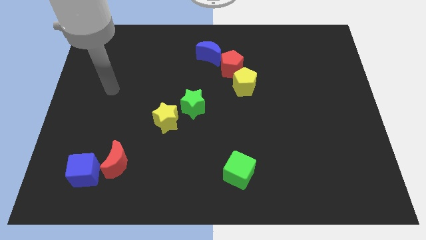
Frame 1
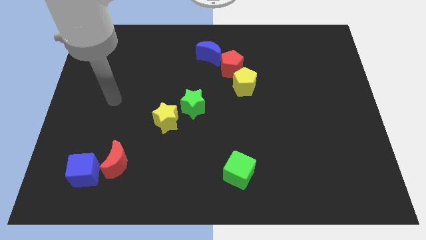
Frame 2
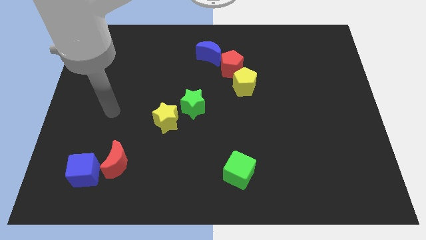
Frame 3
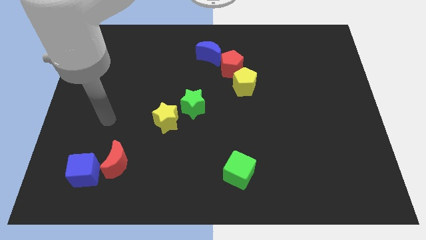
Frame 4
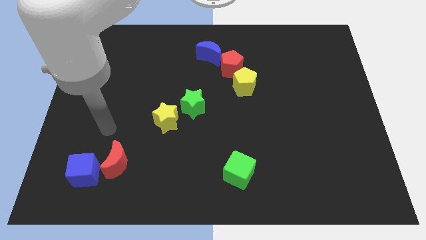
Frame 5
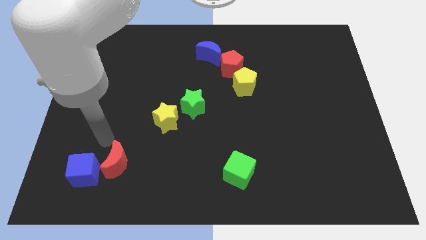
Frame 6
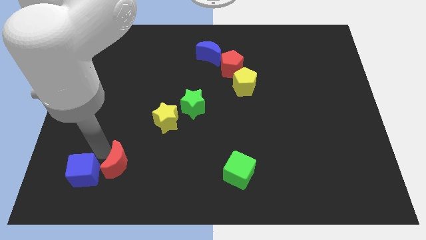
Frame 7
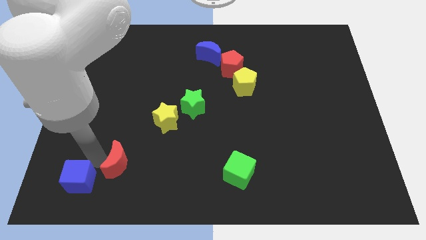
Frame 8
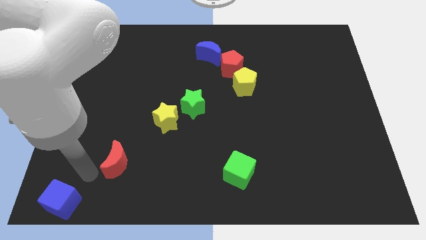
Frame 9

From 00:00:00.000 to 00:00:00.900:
pull the red moon apart from the blue cube

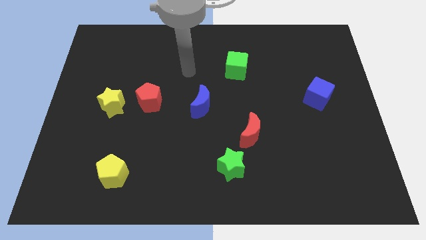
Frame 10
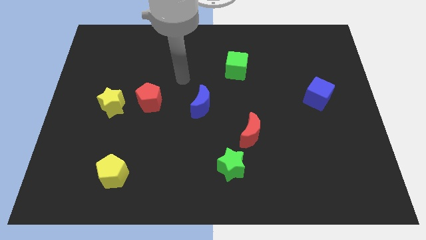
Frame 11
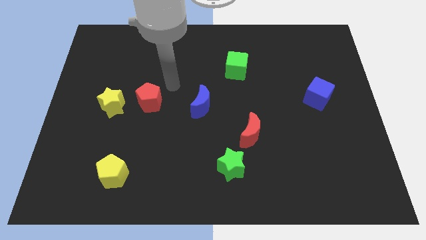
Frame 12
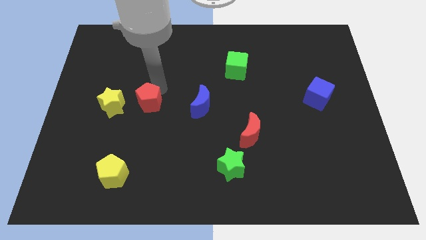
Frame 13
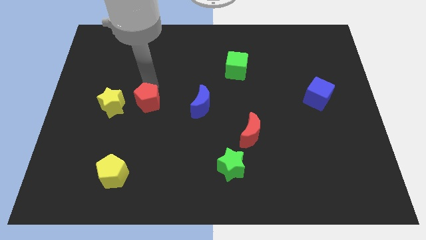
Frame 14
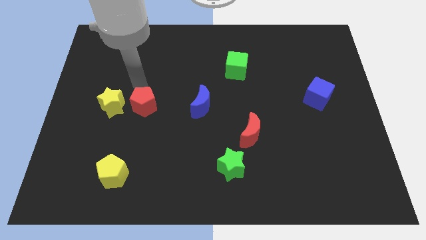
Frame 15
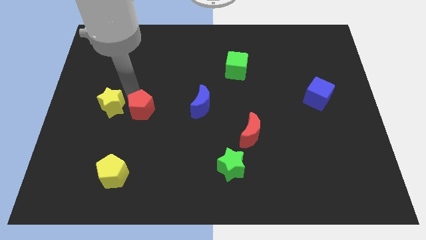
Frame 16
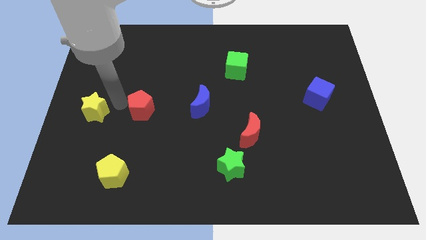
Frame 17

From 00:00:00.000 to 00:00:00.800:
pull the red pentagon apart from the yellow star

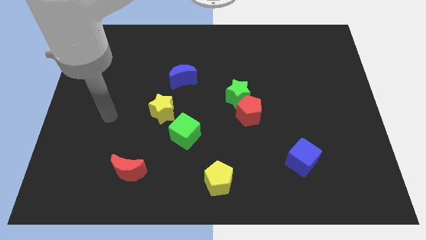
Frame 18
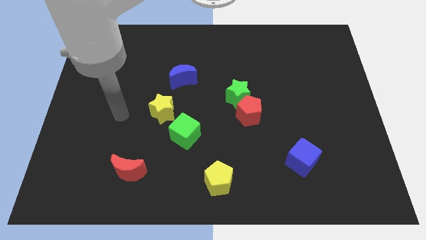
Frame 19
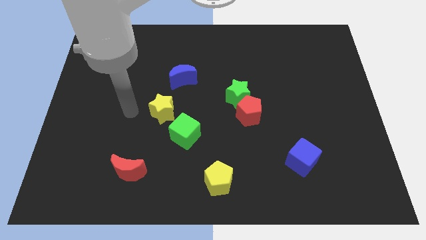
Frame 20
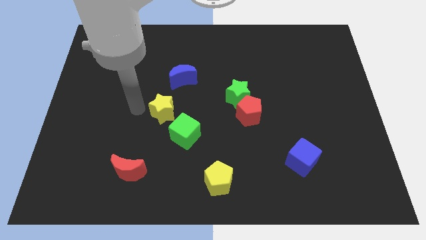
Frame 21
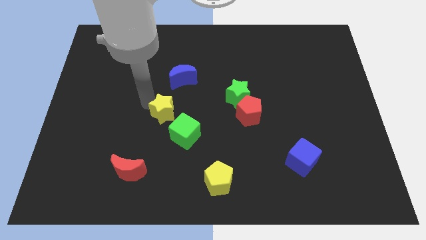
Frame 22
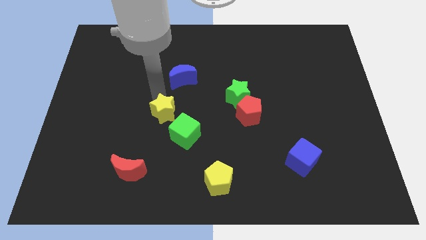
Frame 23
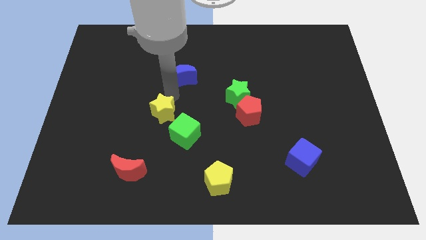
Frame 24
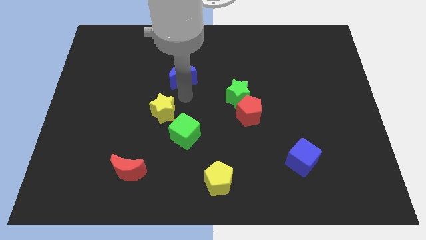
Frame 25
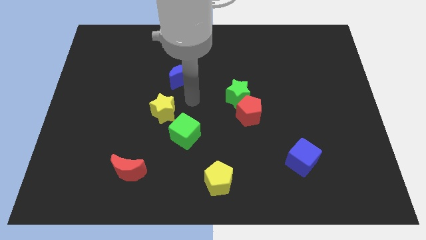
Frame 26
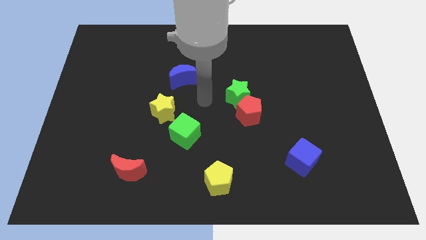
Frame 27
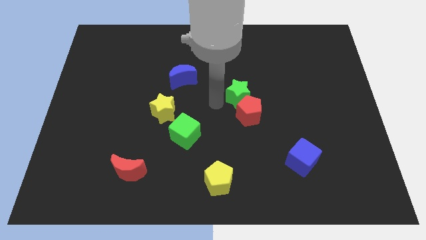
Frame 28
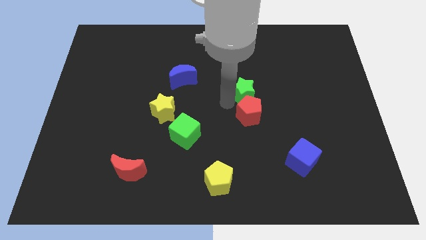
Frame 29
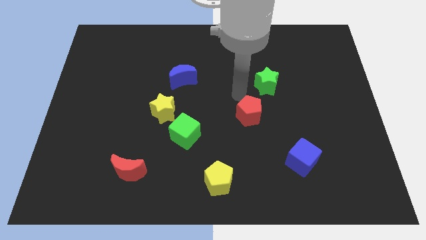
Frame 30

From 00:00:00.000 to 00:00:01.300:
pull the red pentagon apart from the green star

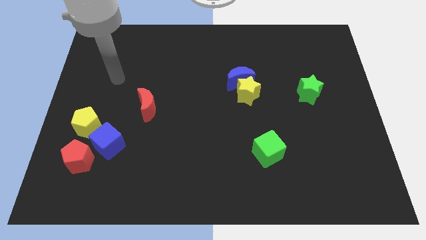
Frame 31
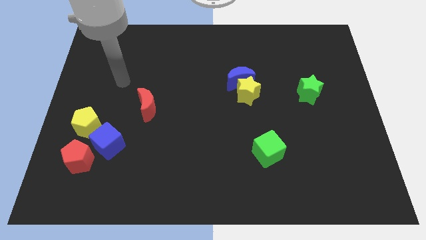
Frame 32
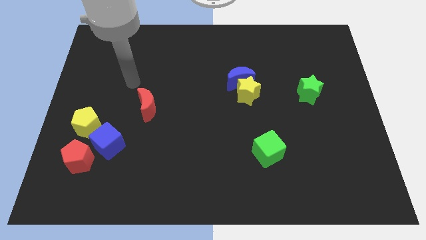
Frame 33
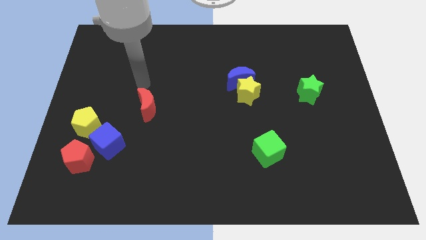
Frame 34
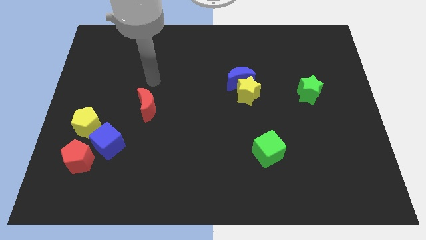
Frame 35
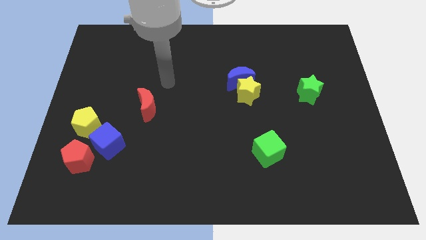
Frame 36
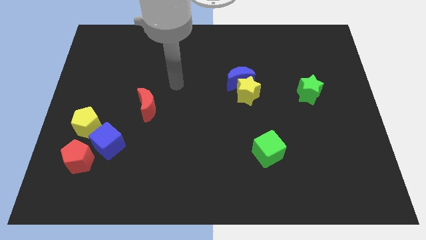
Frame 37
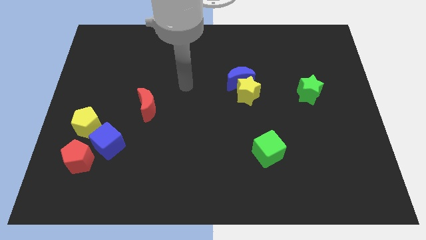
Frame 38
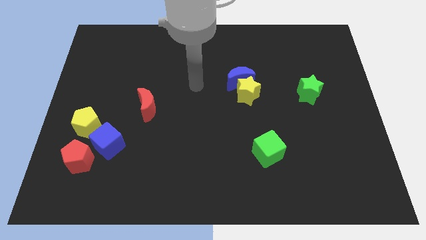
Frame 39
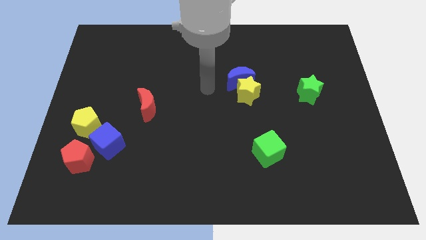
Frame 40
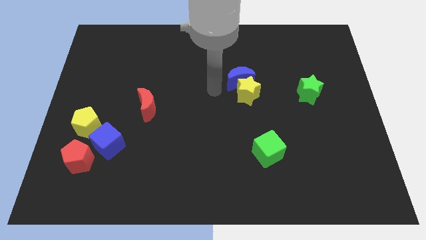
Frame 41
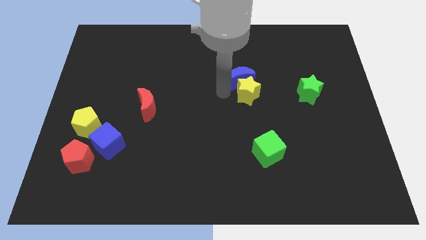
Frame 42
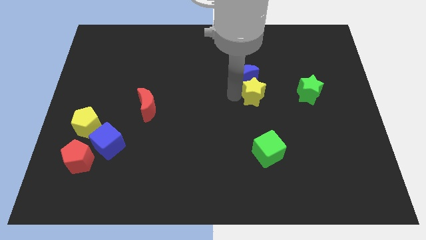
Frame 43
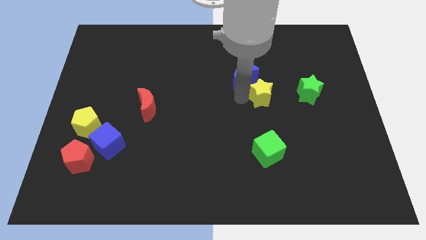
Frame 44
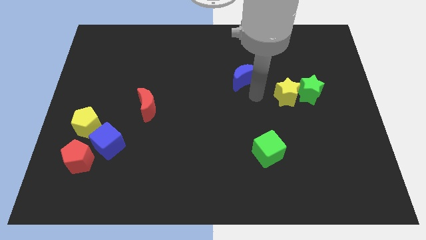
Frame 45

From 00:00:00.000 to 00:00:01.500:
move the blue moon away from the yellow star

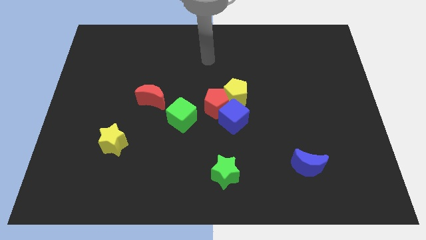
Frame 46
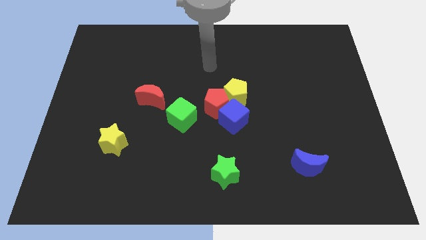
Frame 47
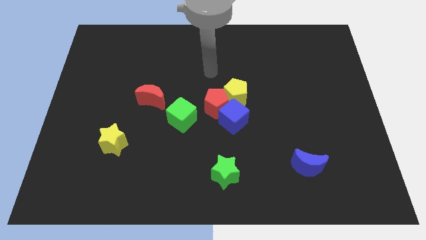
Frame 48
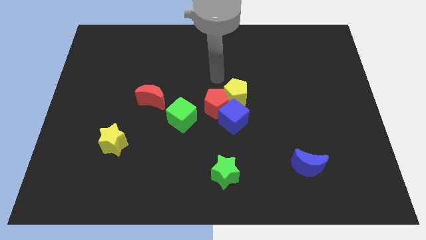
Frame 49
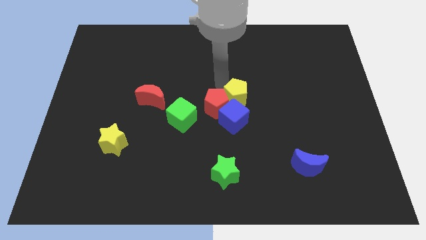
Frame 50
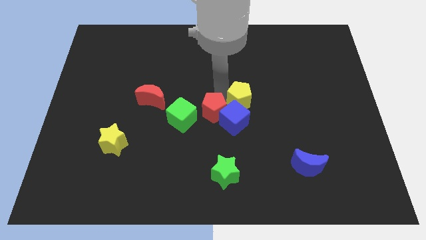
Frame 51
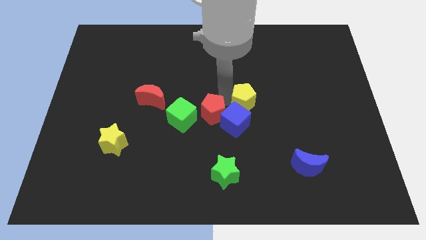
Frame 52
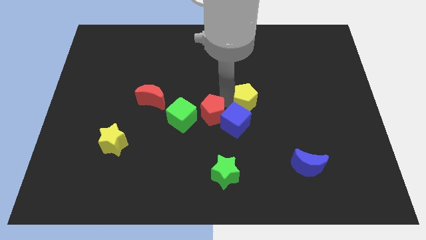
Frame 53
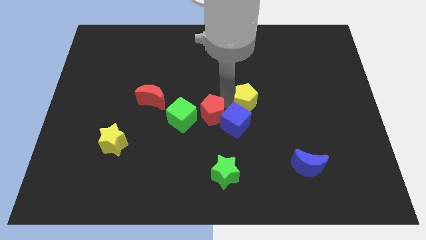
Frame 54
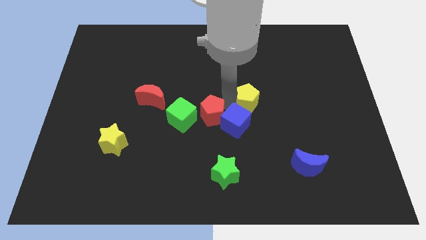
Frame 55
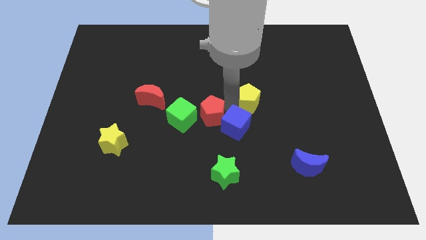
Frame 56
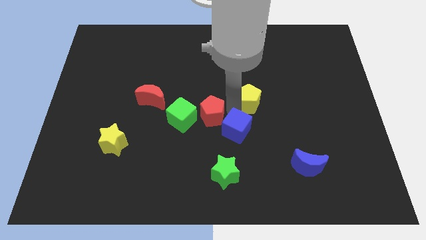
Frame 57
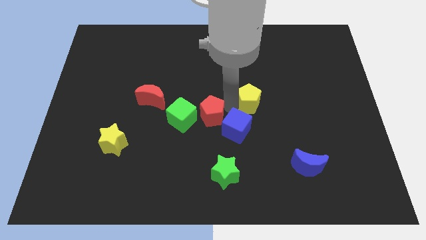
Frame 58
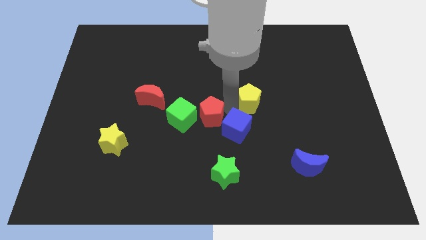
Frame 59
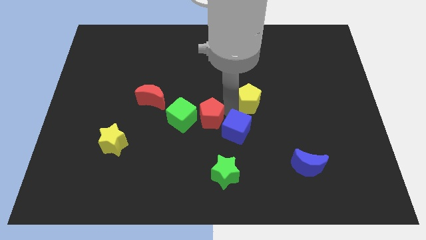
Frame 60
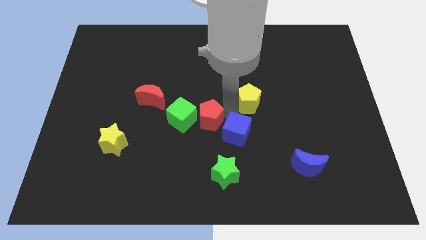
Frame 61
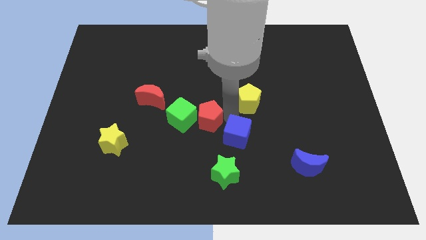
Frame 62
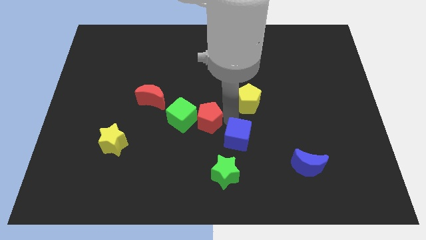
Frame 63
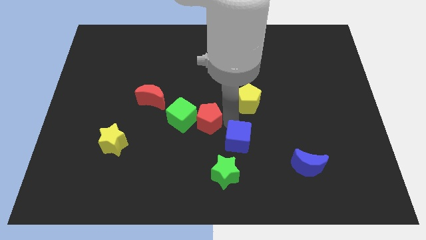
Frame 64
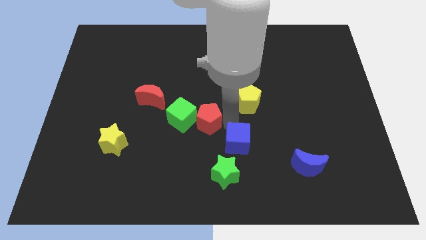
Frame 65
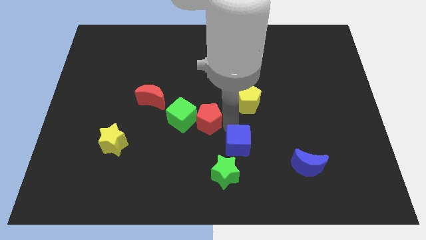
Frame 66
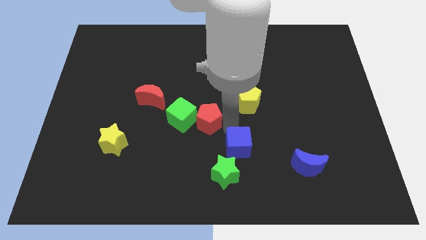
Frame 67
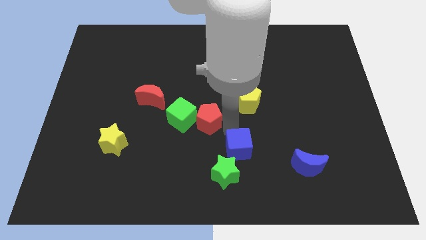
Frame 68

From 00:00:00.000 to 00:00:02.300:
pull the blue cube apart from the red pentagon and yellow pentagon

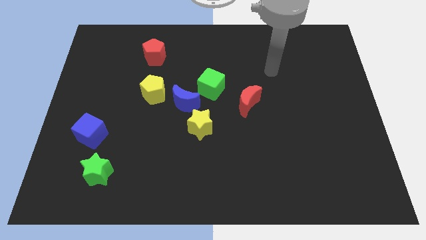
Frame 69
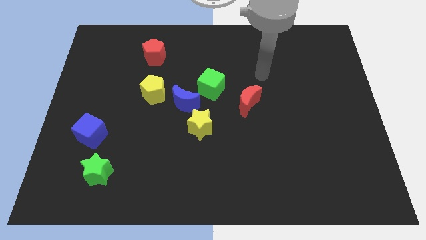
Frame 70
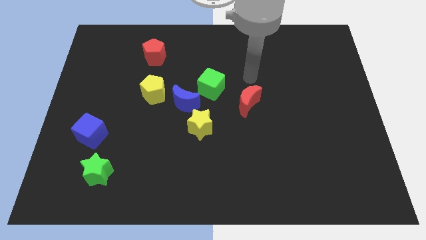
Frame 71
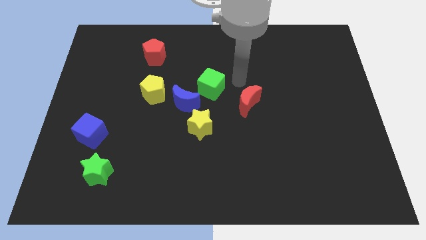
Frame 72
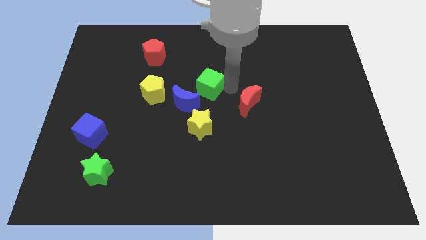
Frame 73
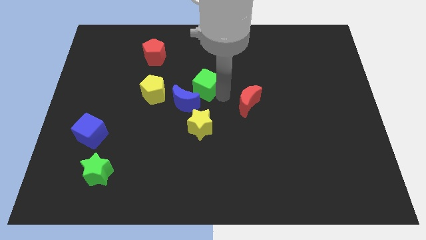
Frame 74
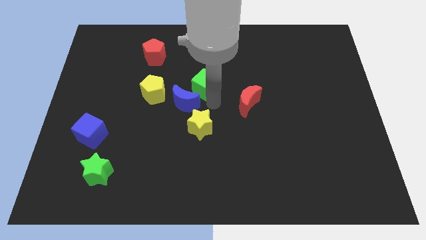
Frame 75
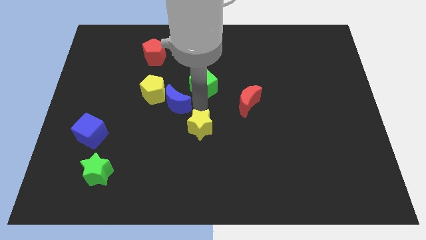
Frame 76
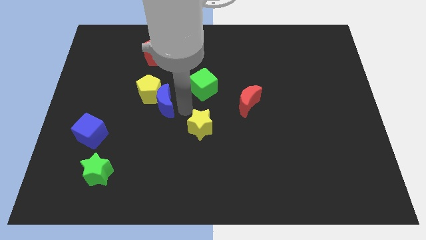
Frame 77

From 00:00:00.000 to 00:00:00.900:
separate the yellow star from the blue moon

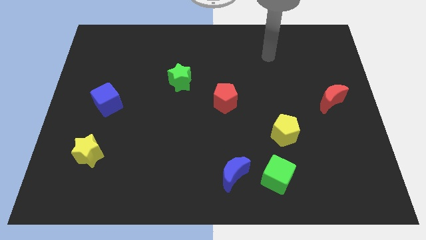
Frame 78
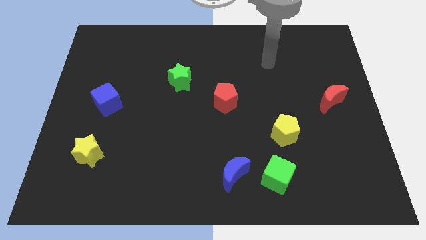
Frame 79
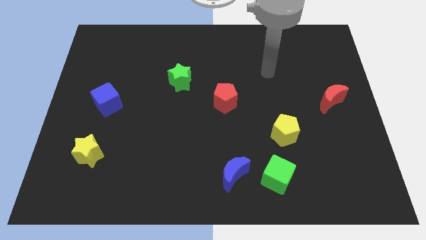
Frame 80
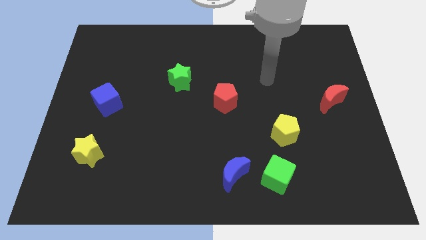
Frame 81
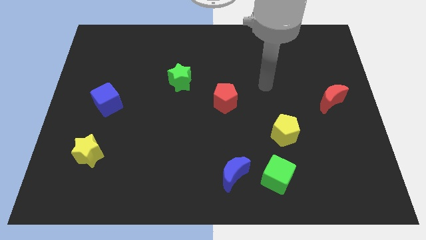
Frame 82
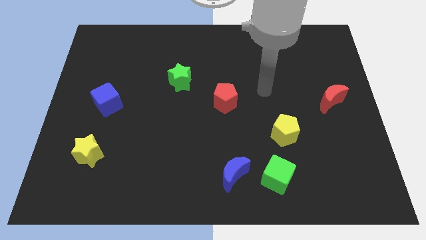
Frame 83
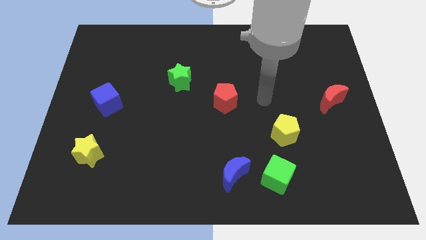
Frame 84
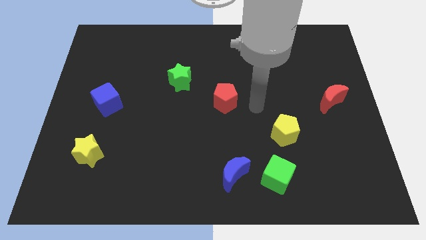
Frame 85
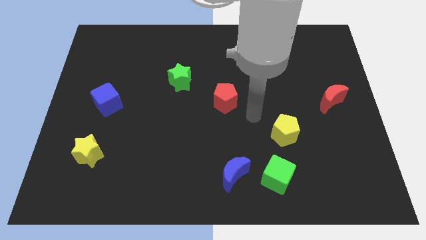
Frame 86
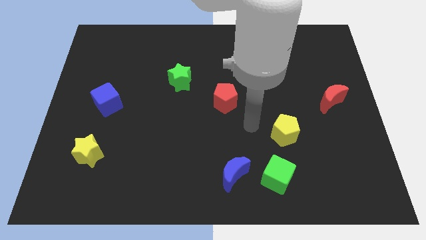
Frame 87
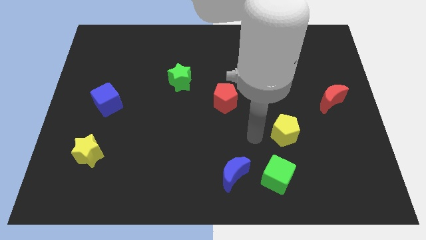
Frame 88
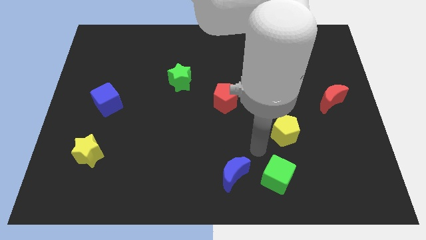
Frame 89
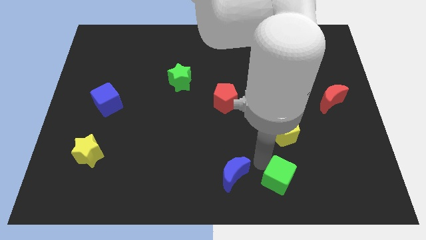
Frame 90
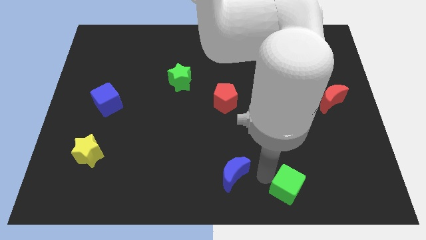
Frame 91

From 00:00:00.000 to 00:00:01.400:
separate the blue moon from the green cube

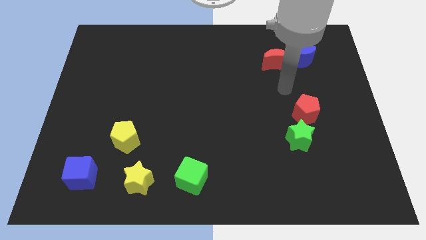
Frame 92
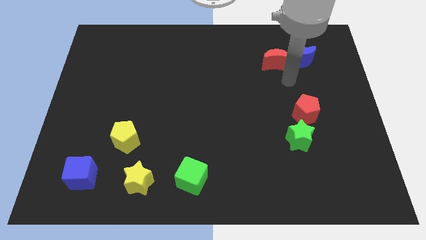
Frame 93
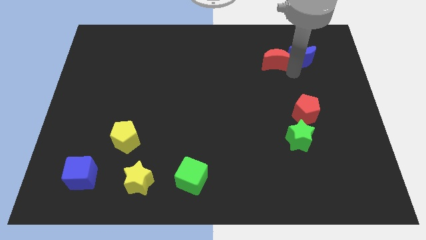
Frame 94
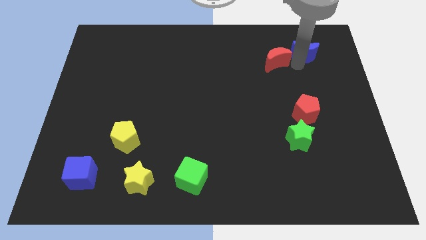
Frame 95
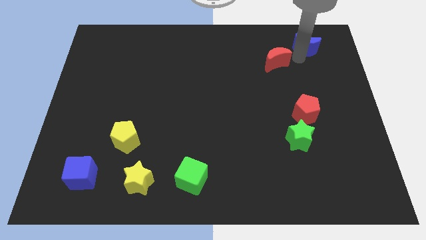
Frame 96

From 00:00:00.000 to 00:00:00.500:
move the red moon away from the blue moon
